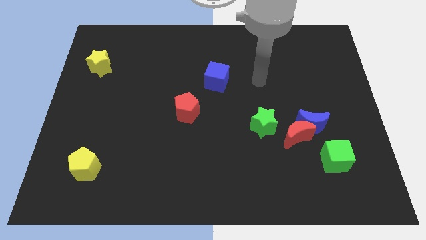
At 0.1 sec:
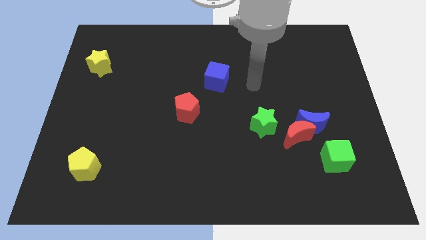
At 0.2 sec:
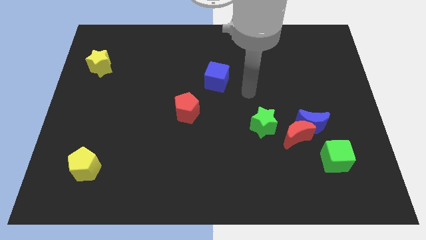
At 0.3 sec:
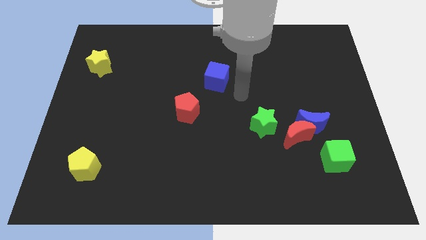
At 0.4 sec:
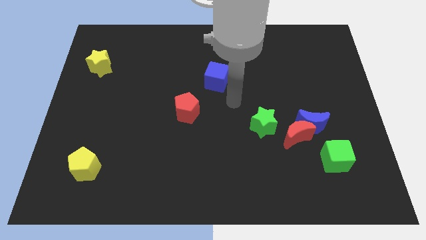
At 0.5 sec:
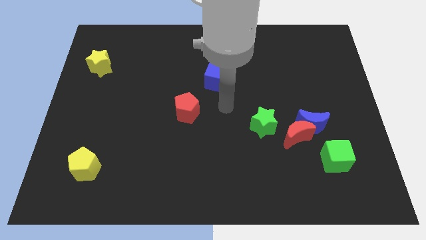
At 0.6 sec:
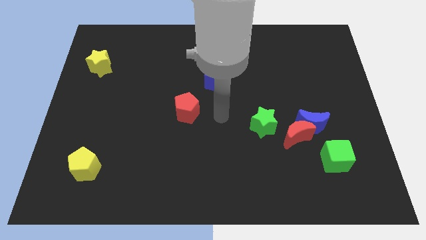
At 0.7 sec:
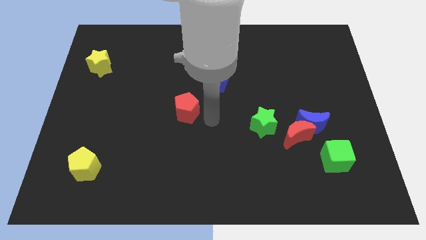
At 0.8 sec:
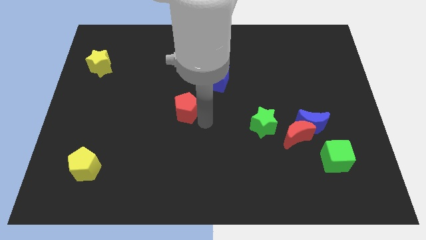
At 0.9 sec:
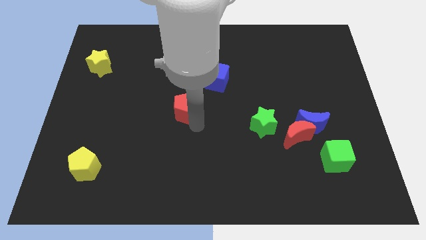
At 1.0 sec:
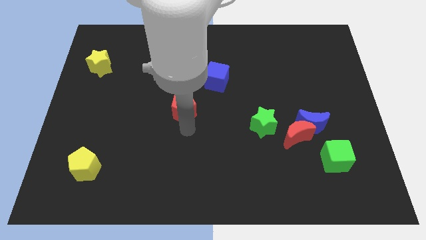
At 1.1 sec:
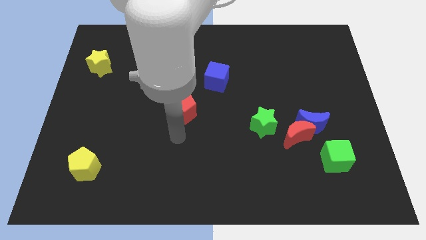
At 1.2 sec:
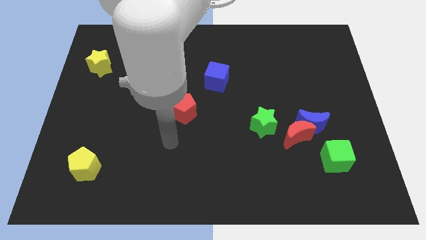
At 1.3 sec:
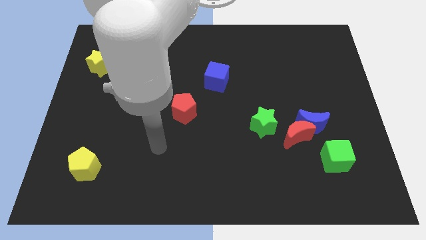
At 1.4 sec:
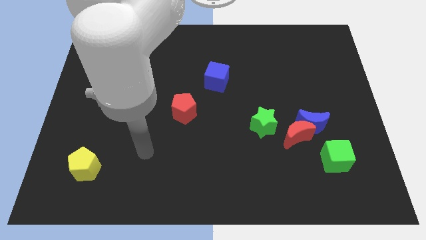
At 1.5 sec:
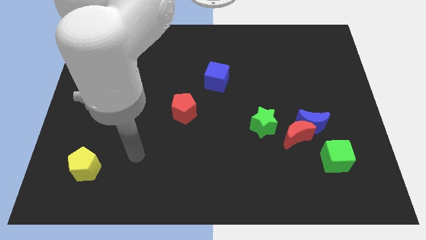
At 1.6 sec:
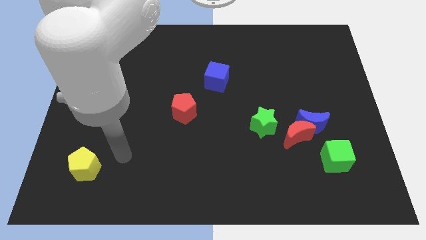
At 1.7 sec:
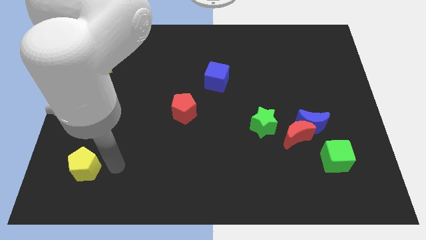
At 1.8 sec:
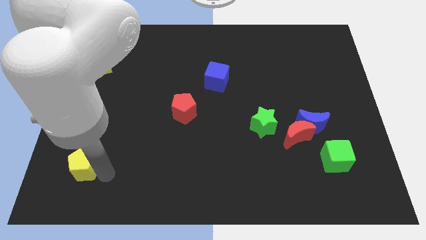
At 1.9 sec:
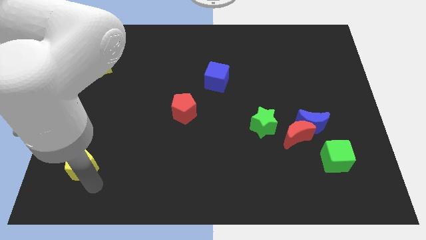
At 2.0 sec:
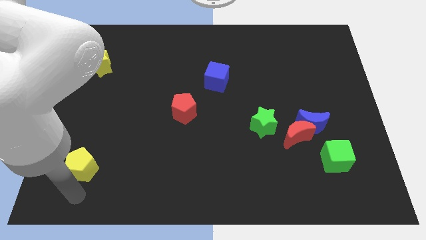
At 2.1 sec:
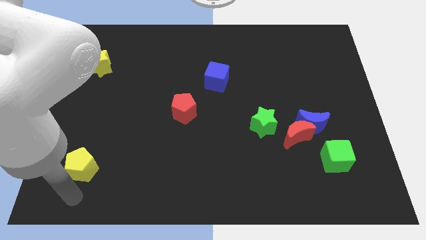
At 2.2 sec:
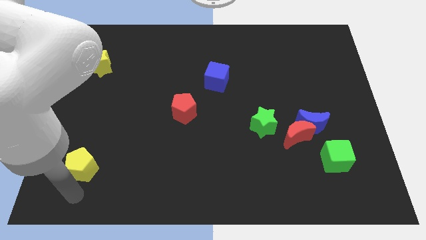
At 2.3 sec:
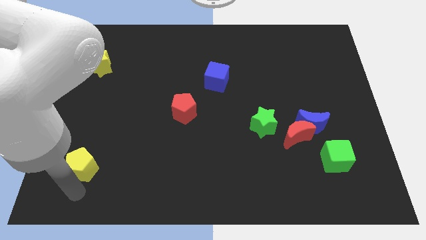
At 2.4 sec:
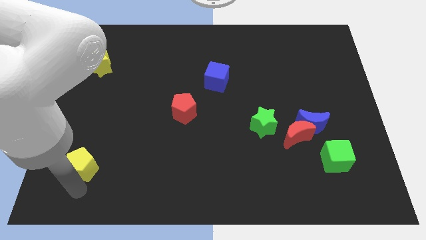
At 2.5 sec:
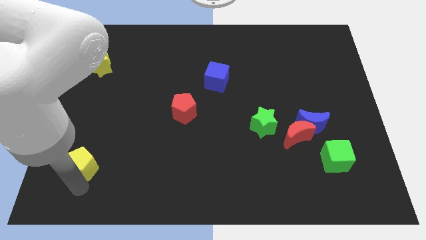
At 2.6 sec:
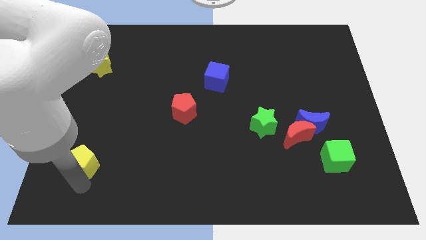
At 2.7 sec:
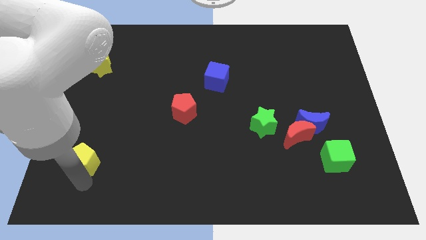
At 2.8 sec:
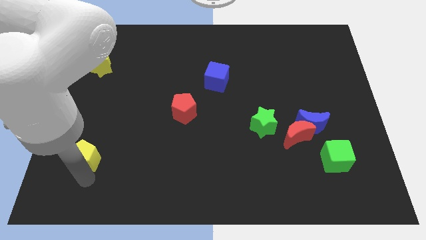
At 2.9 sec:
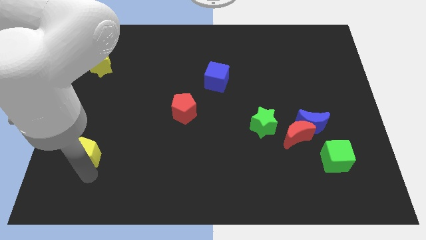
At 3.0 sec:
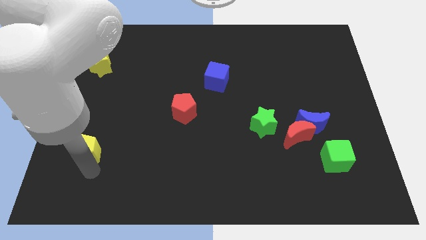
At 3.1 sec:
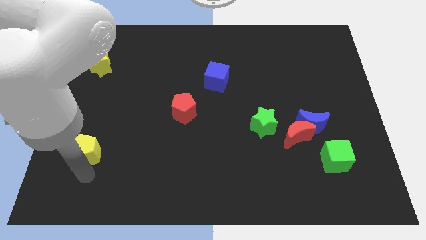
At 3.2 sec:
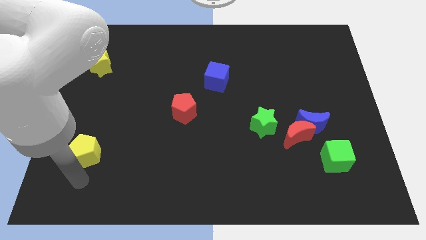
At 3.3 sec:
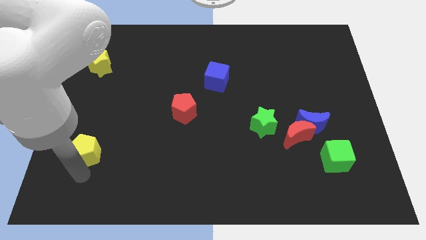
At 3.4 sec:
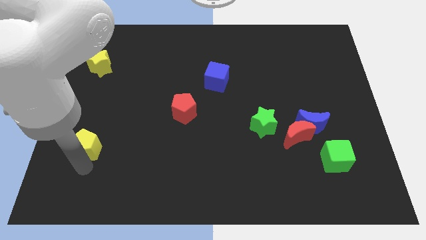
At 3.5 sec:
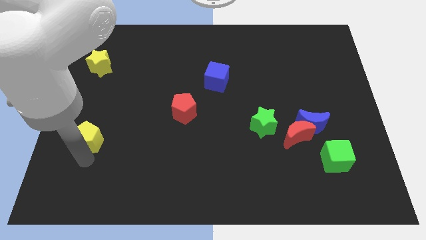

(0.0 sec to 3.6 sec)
move the yellow pentagon a little bit up

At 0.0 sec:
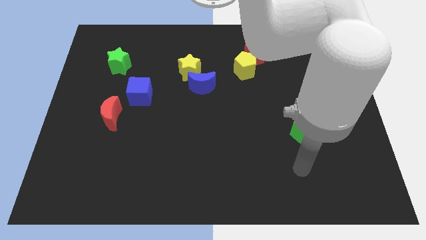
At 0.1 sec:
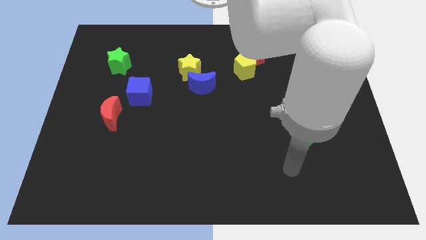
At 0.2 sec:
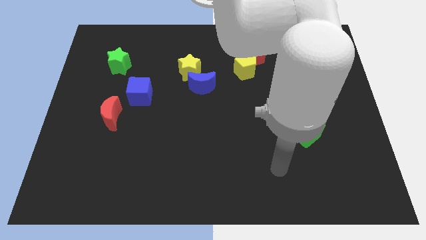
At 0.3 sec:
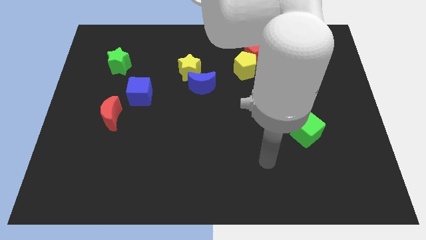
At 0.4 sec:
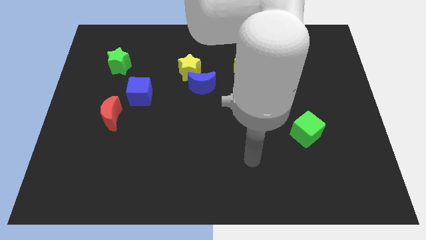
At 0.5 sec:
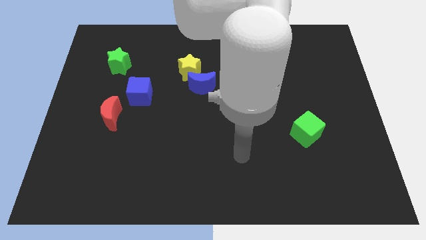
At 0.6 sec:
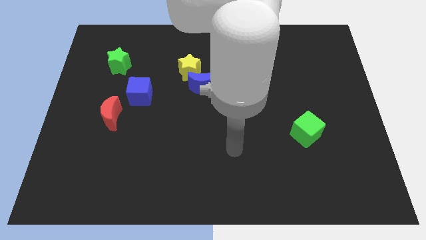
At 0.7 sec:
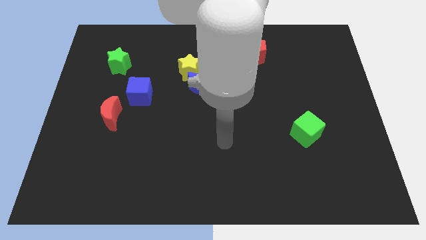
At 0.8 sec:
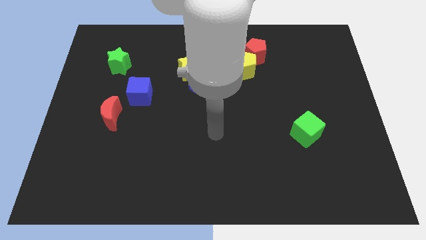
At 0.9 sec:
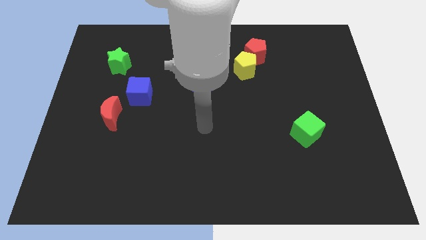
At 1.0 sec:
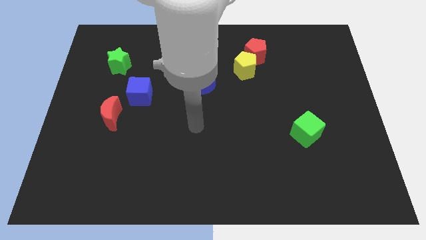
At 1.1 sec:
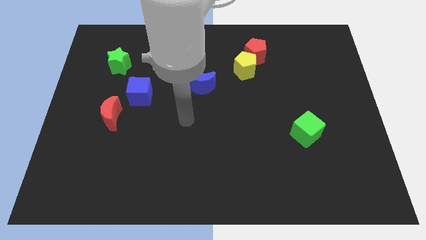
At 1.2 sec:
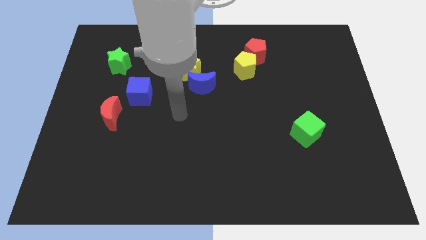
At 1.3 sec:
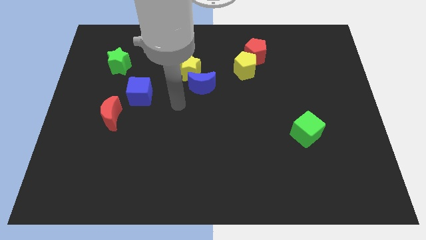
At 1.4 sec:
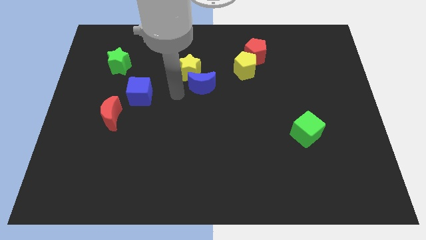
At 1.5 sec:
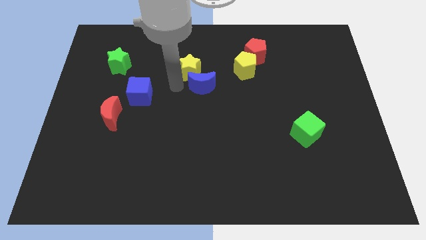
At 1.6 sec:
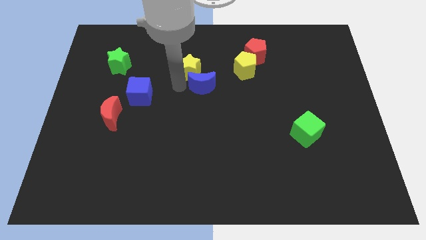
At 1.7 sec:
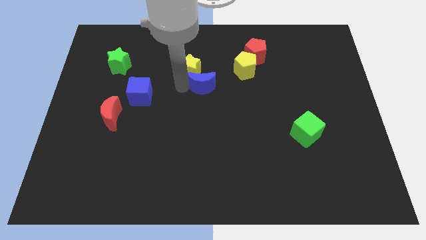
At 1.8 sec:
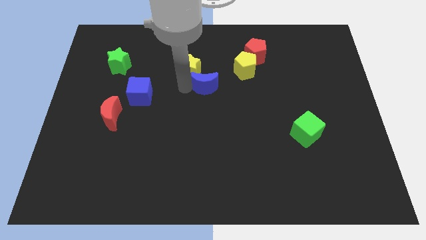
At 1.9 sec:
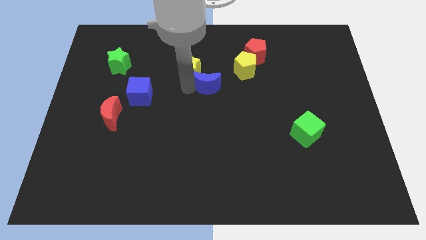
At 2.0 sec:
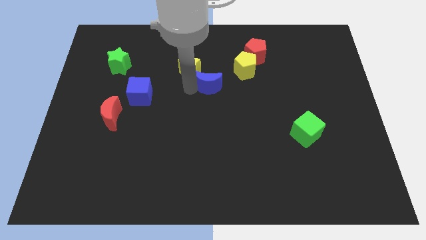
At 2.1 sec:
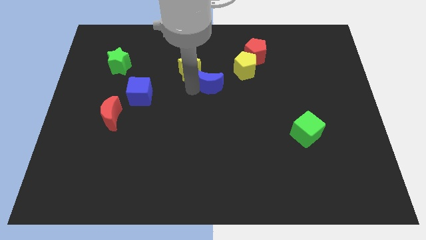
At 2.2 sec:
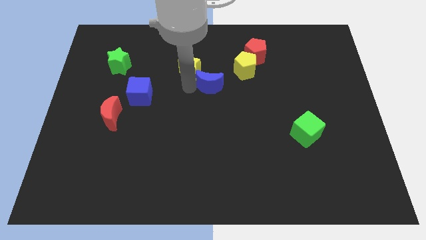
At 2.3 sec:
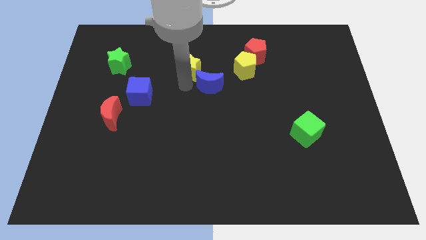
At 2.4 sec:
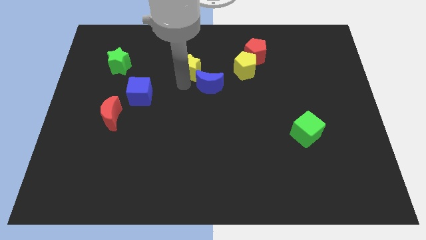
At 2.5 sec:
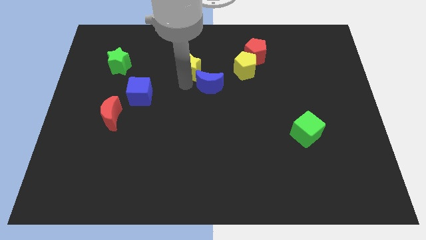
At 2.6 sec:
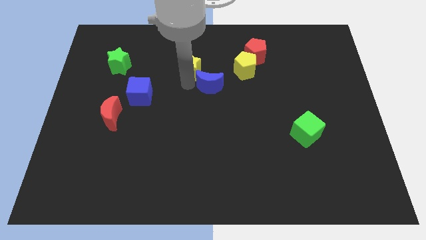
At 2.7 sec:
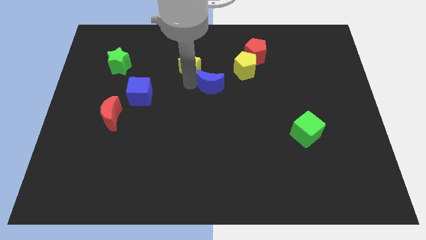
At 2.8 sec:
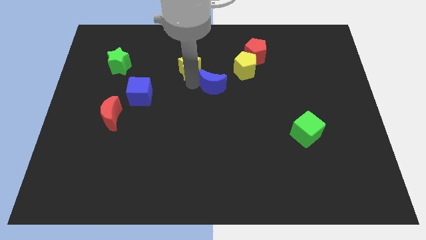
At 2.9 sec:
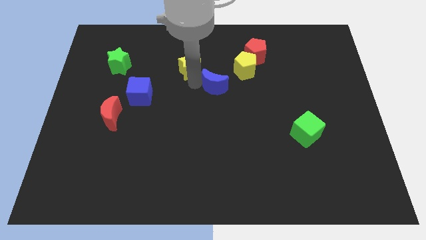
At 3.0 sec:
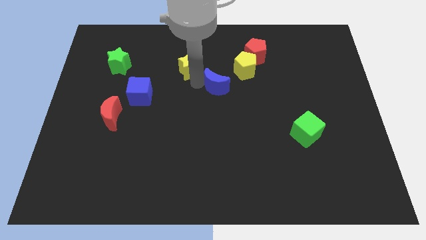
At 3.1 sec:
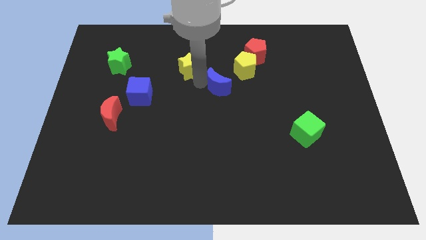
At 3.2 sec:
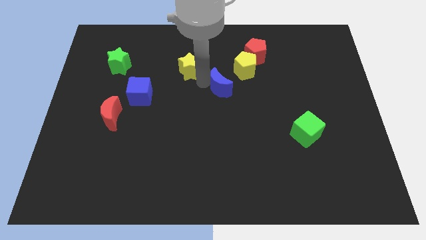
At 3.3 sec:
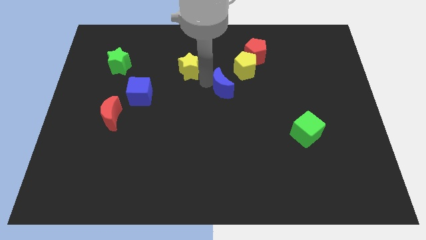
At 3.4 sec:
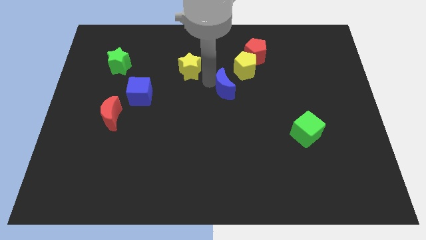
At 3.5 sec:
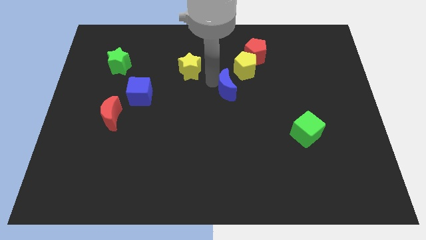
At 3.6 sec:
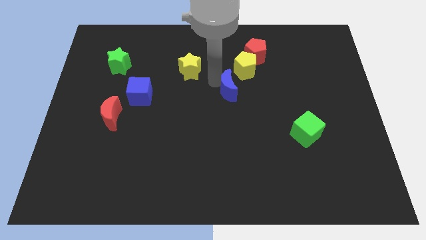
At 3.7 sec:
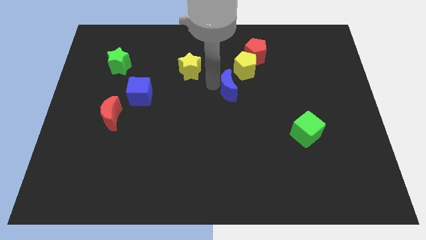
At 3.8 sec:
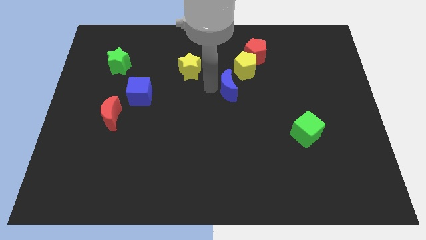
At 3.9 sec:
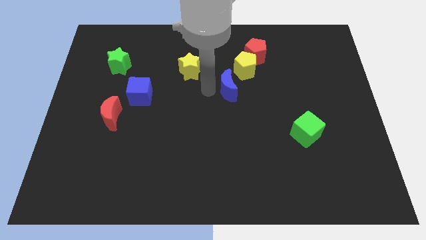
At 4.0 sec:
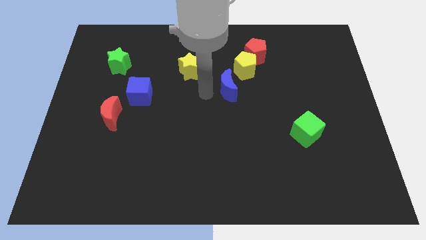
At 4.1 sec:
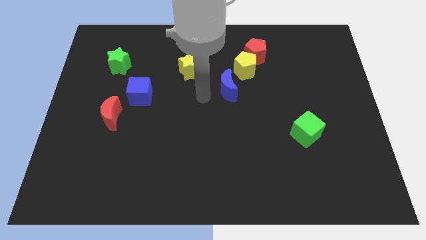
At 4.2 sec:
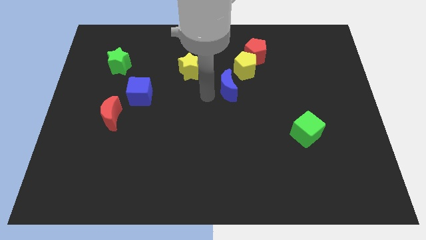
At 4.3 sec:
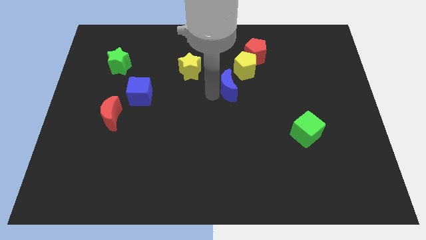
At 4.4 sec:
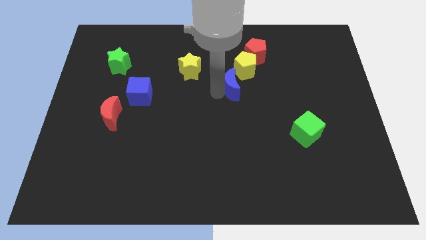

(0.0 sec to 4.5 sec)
move the blue moon slightly to the right

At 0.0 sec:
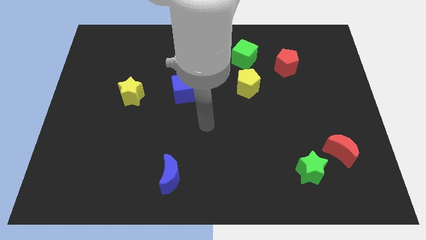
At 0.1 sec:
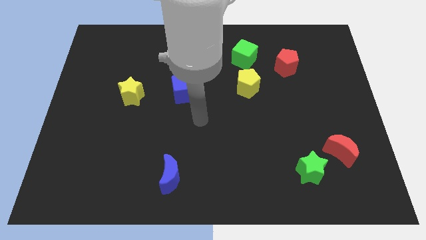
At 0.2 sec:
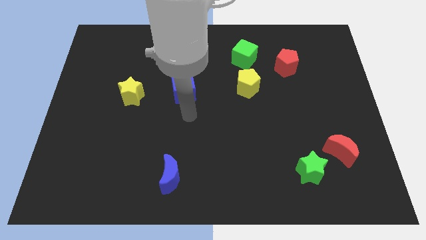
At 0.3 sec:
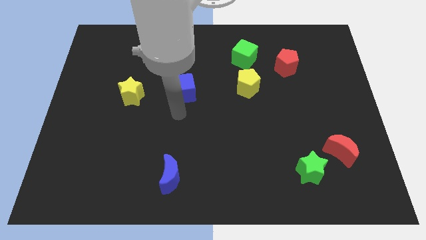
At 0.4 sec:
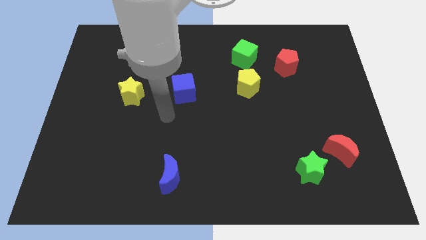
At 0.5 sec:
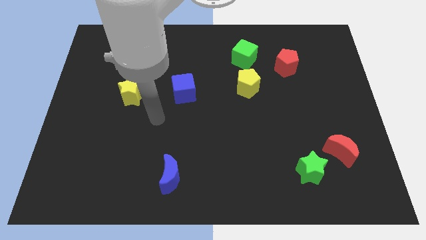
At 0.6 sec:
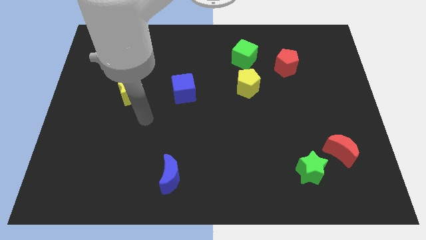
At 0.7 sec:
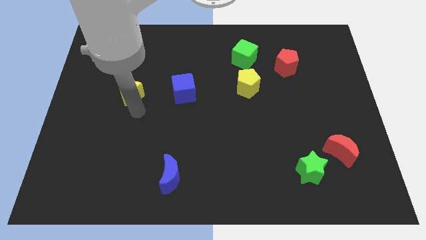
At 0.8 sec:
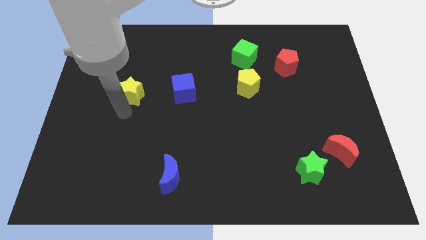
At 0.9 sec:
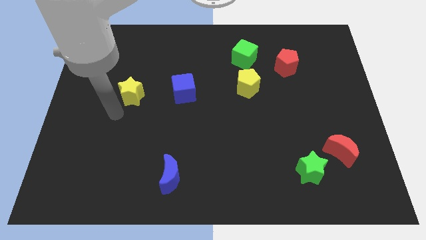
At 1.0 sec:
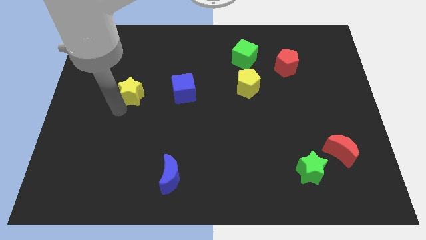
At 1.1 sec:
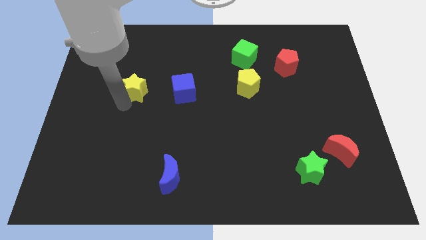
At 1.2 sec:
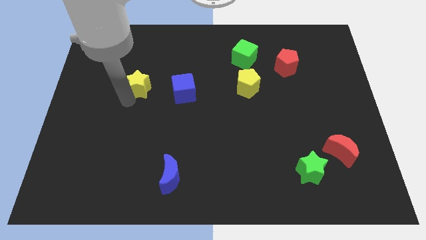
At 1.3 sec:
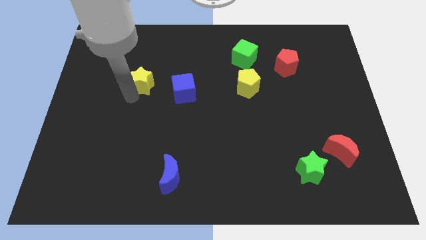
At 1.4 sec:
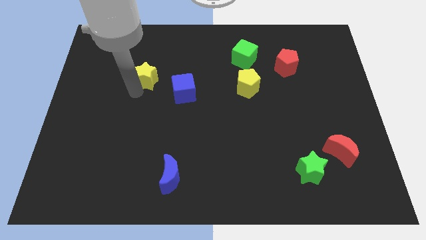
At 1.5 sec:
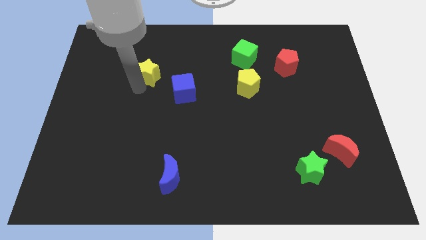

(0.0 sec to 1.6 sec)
slide the yellow star upwards and to the right a little
